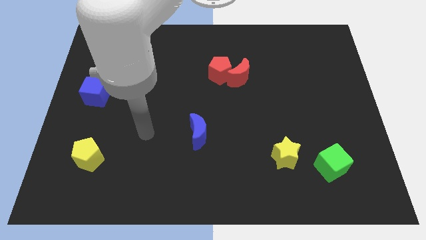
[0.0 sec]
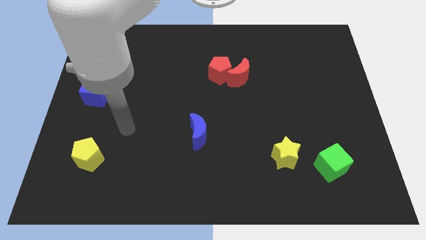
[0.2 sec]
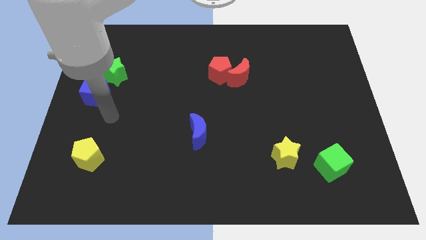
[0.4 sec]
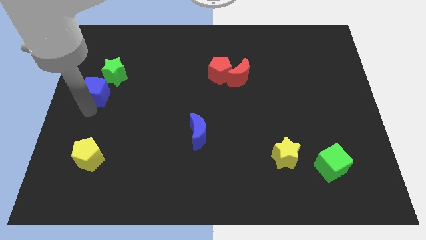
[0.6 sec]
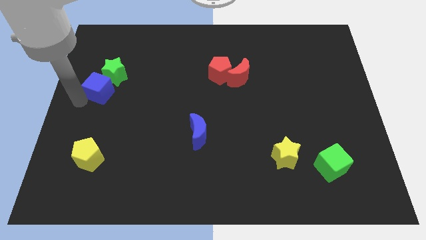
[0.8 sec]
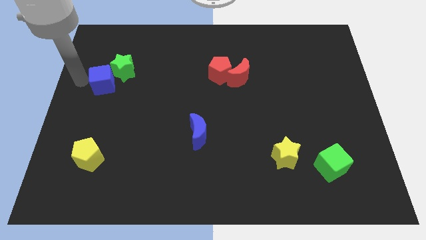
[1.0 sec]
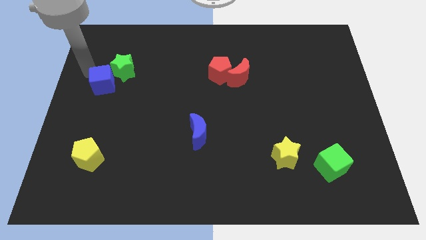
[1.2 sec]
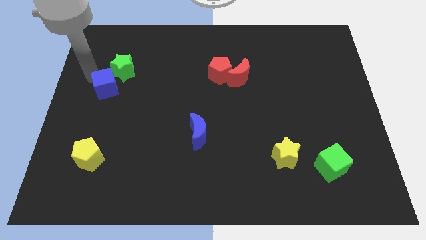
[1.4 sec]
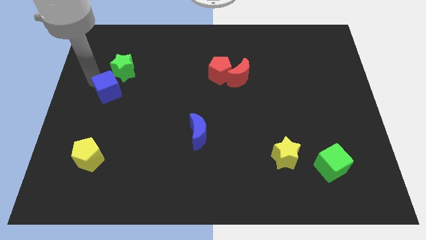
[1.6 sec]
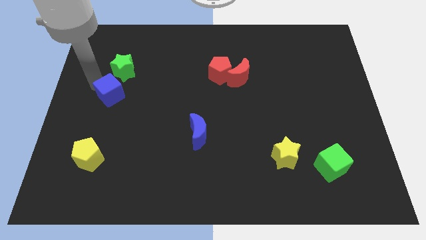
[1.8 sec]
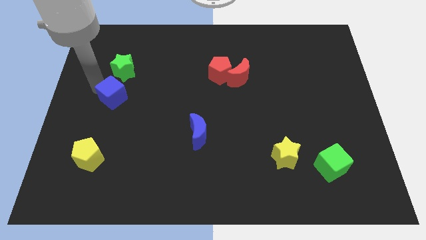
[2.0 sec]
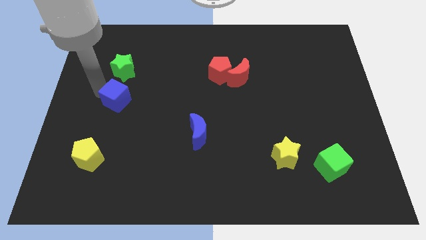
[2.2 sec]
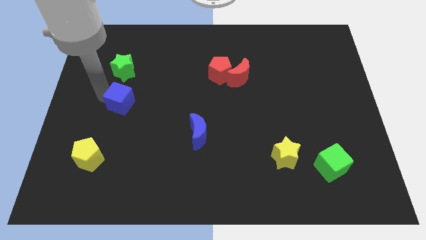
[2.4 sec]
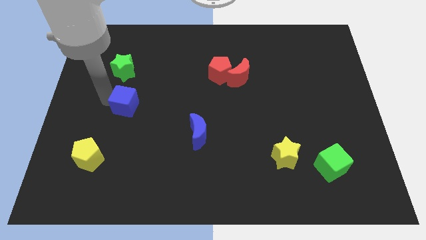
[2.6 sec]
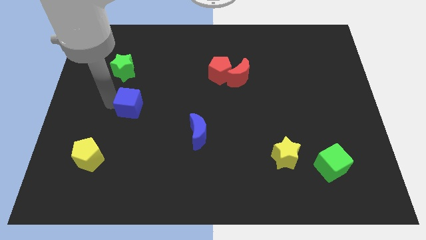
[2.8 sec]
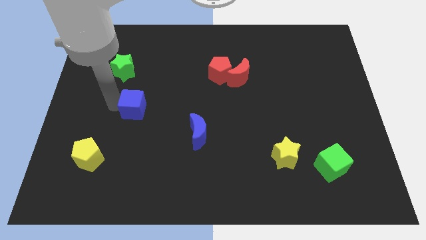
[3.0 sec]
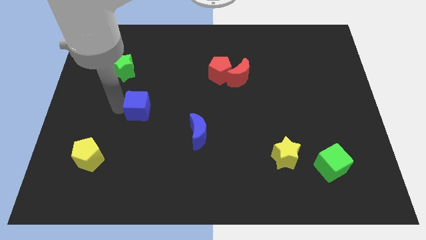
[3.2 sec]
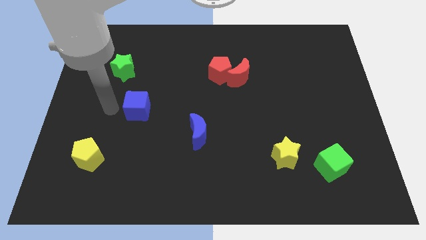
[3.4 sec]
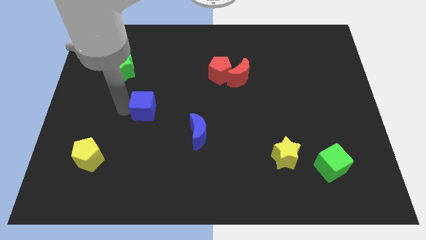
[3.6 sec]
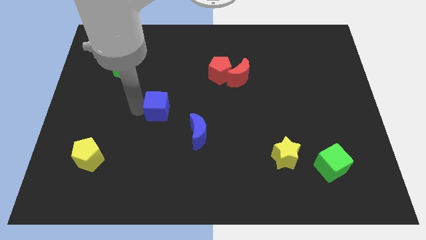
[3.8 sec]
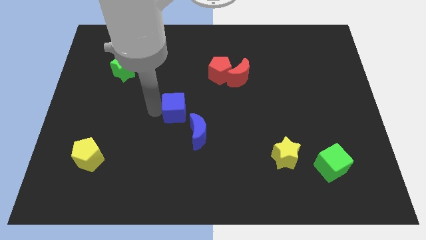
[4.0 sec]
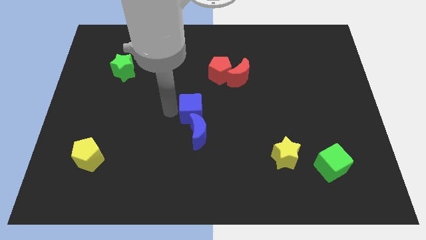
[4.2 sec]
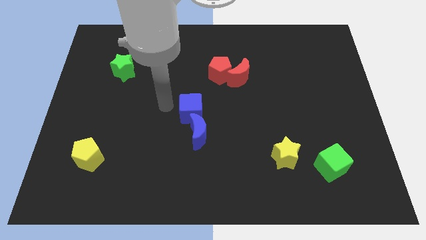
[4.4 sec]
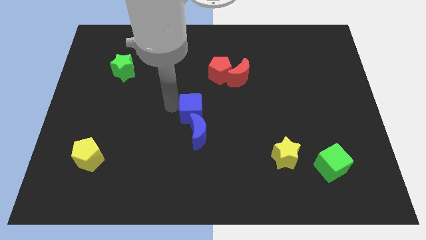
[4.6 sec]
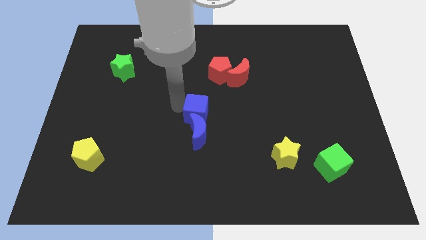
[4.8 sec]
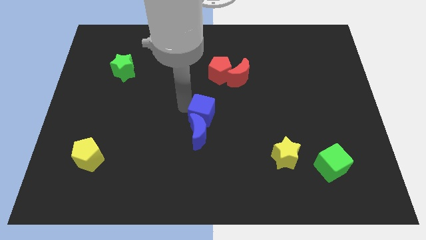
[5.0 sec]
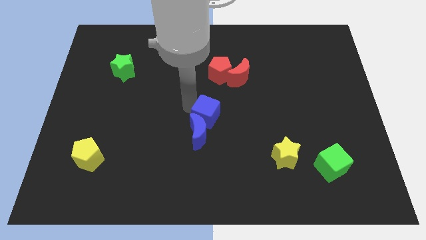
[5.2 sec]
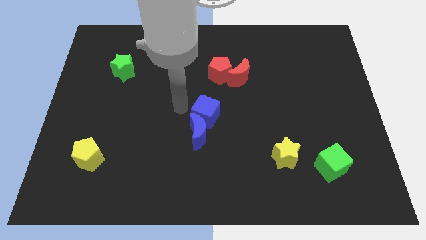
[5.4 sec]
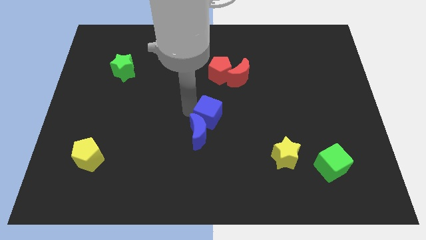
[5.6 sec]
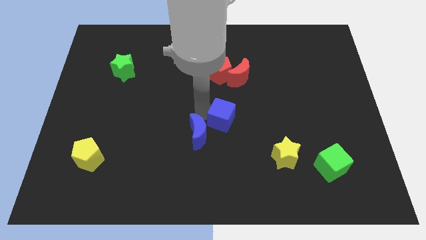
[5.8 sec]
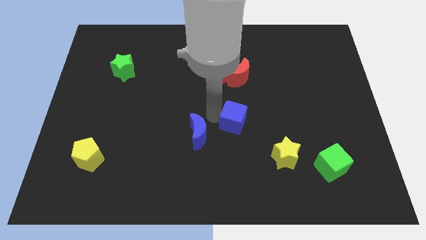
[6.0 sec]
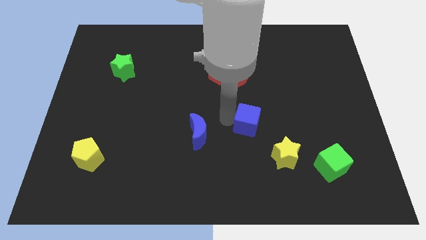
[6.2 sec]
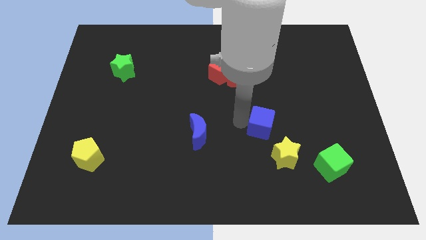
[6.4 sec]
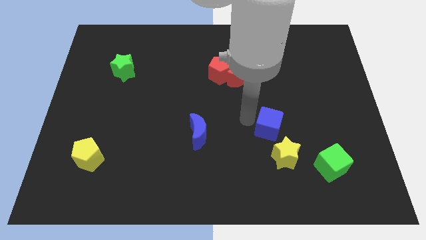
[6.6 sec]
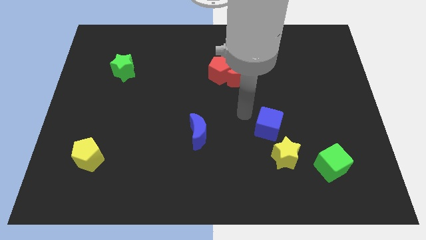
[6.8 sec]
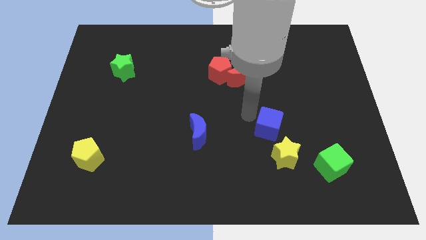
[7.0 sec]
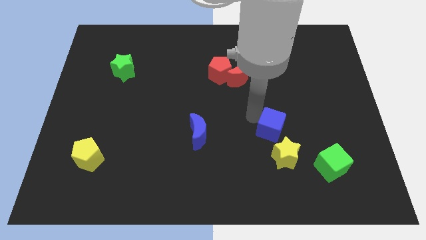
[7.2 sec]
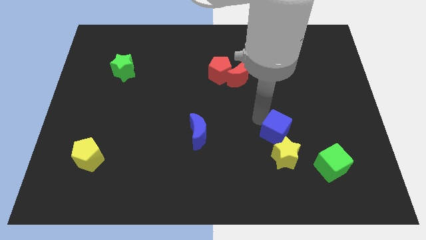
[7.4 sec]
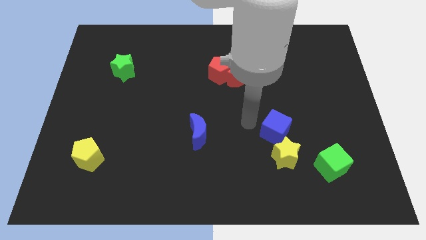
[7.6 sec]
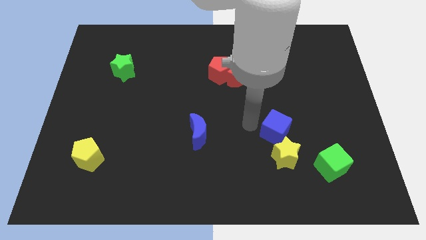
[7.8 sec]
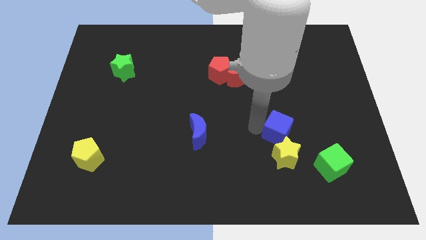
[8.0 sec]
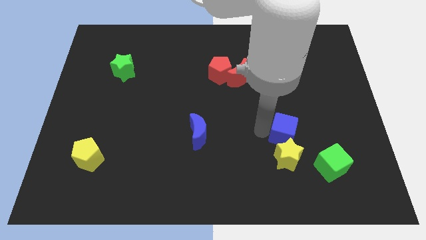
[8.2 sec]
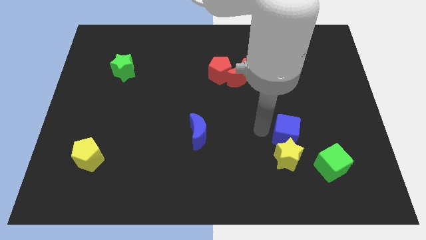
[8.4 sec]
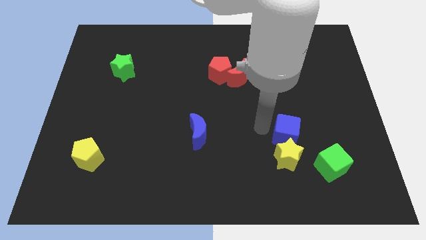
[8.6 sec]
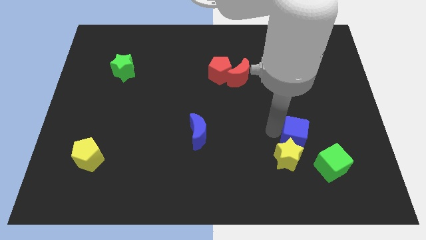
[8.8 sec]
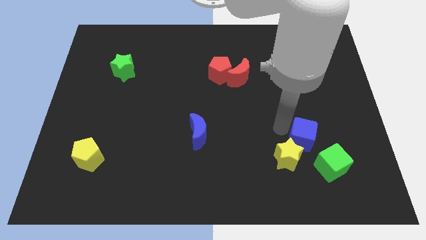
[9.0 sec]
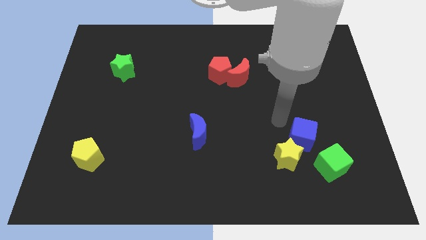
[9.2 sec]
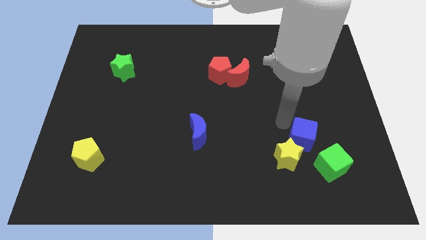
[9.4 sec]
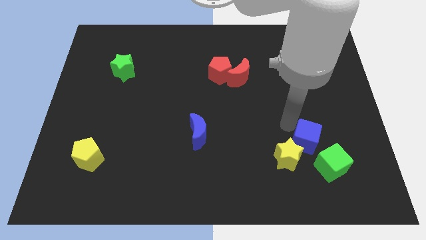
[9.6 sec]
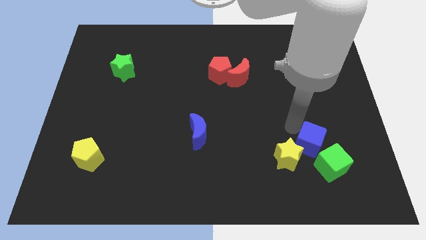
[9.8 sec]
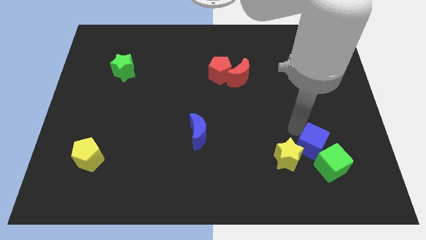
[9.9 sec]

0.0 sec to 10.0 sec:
move the blue cube to the green cube

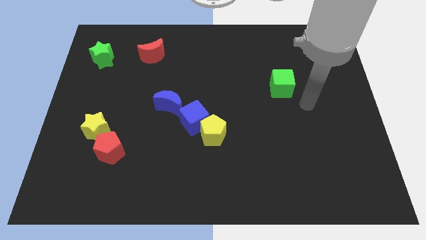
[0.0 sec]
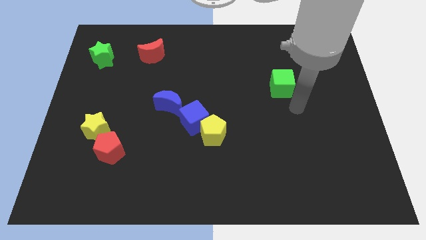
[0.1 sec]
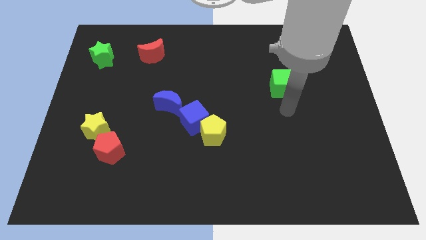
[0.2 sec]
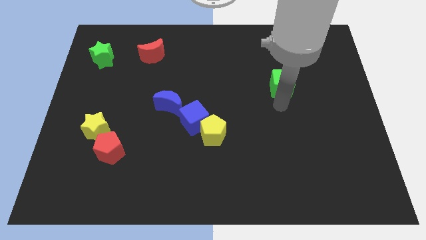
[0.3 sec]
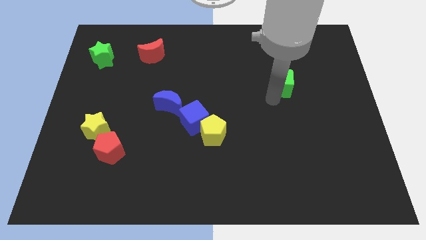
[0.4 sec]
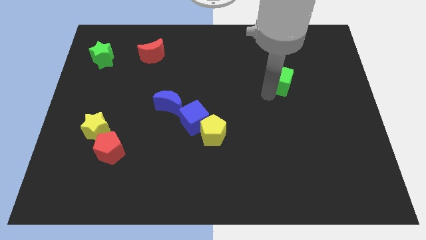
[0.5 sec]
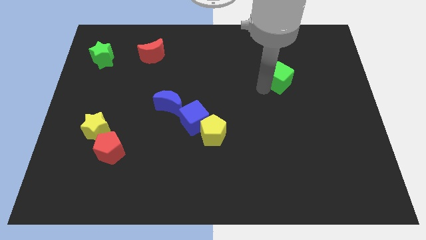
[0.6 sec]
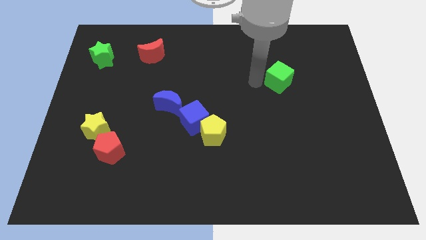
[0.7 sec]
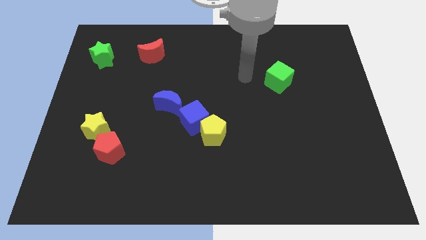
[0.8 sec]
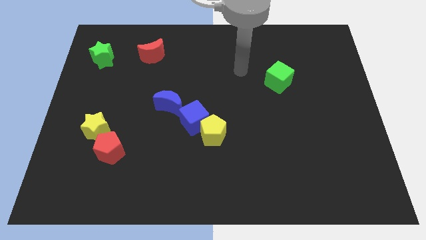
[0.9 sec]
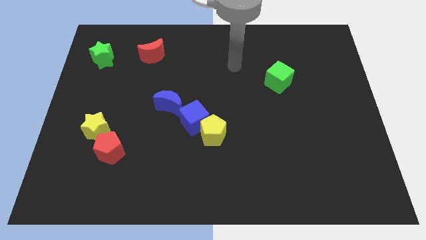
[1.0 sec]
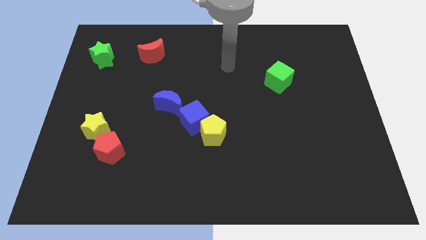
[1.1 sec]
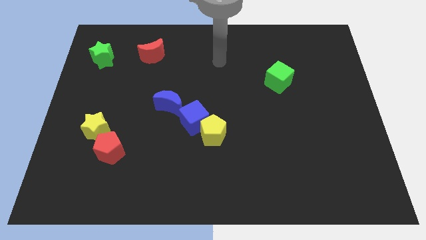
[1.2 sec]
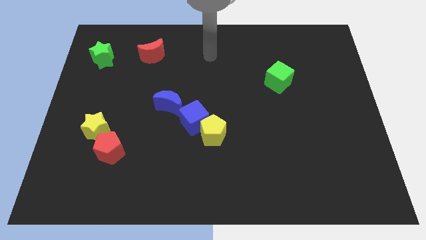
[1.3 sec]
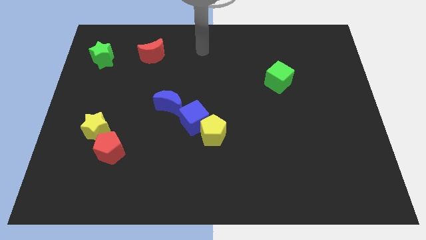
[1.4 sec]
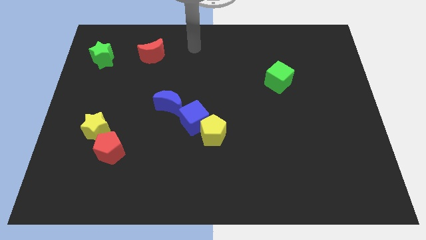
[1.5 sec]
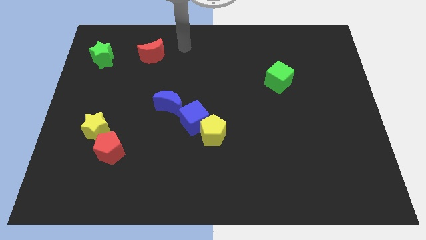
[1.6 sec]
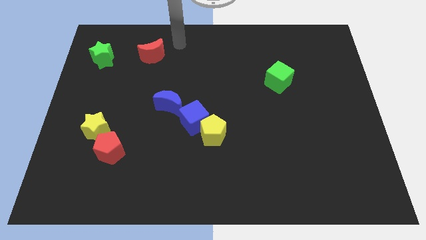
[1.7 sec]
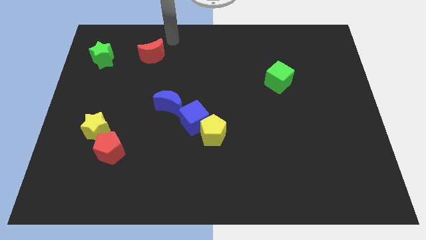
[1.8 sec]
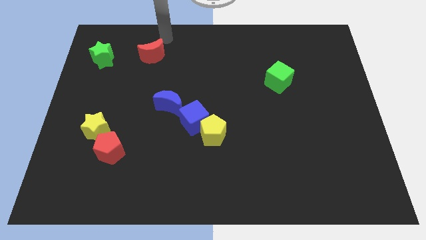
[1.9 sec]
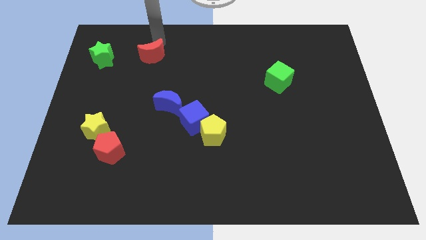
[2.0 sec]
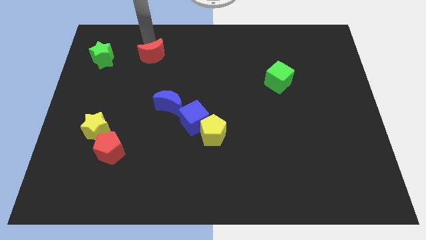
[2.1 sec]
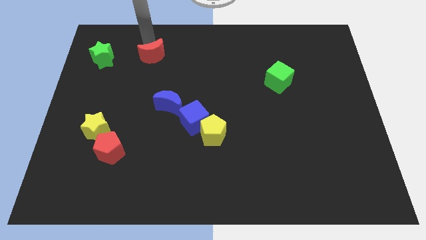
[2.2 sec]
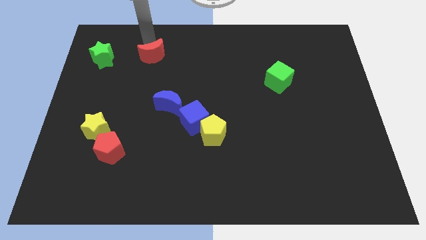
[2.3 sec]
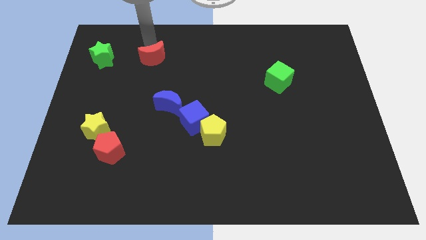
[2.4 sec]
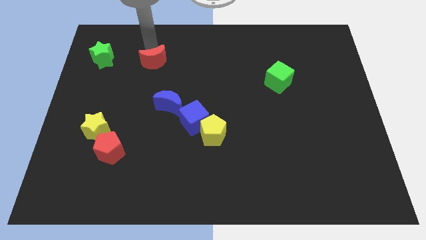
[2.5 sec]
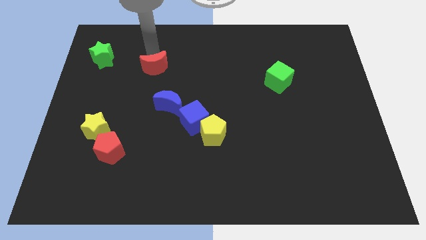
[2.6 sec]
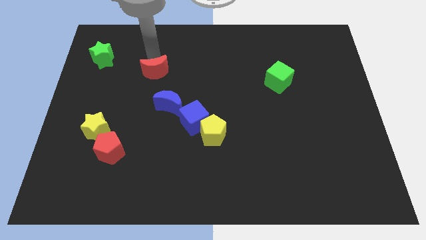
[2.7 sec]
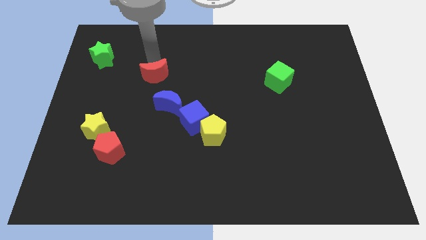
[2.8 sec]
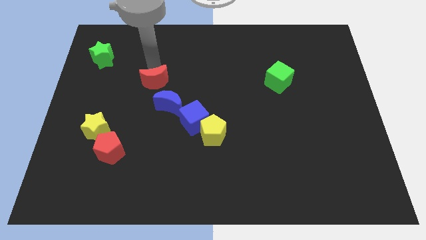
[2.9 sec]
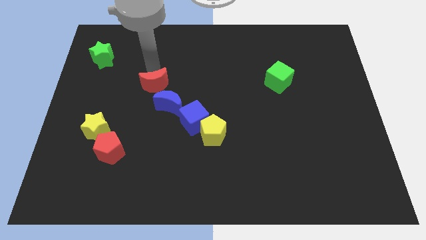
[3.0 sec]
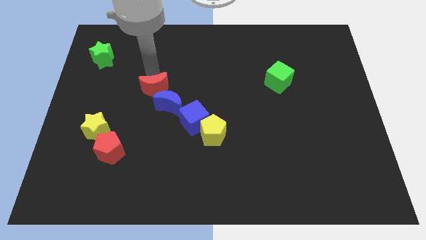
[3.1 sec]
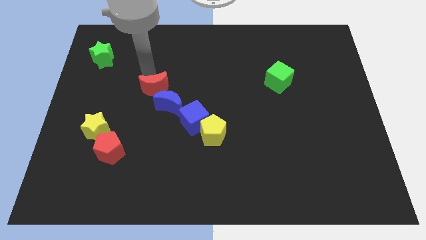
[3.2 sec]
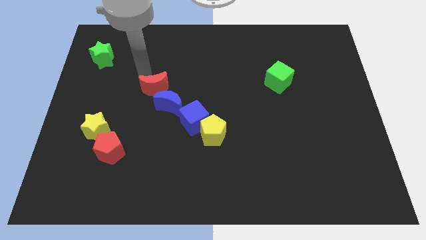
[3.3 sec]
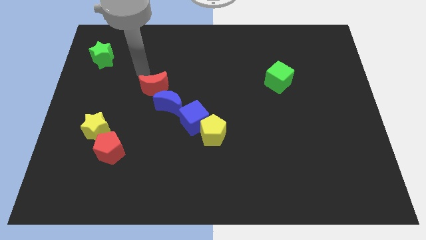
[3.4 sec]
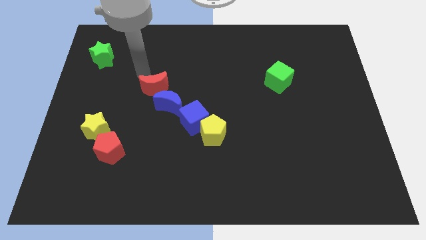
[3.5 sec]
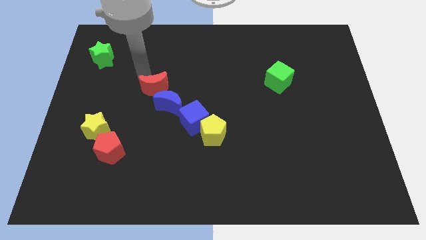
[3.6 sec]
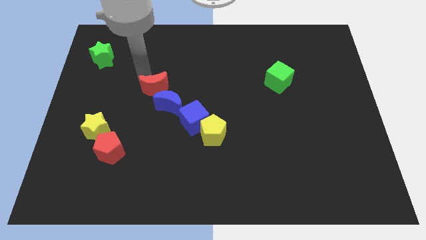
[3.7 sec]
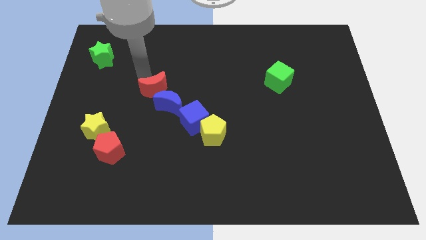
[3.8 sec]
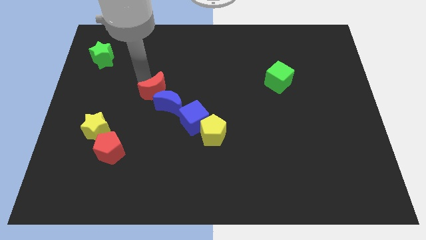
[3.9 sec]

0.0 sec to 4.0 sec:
push the red moon next to the blue moon
